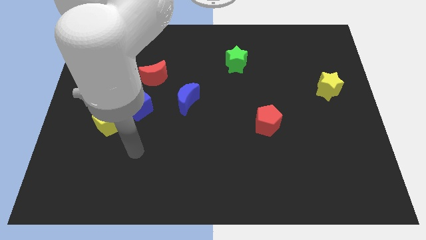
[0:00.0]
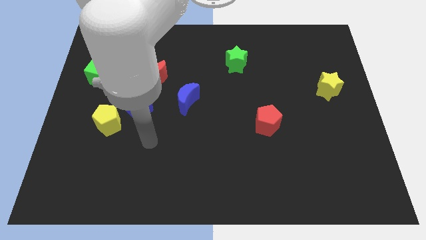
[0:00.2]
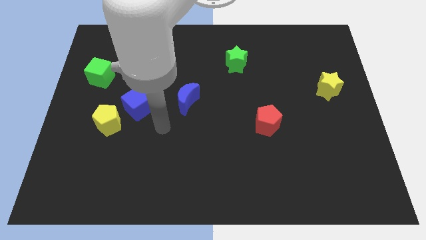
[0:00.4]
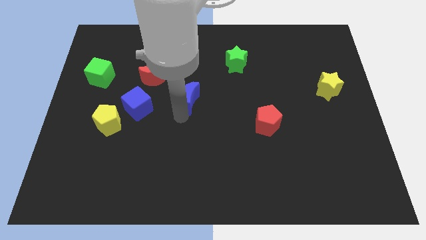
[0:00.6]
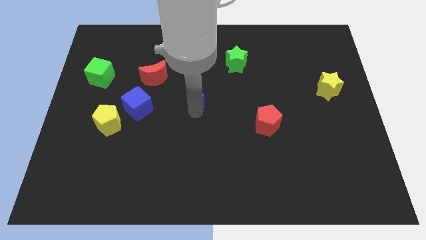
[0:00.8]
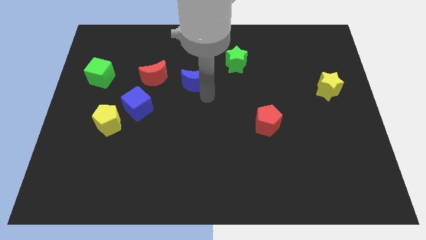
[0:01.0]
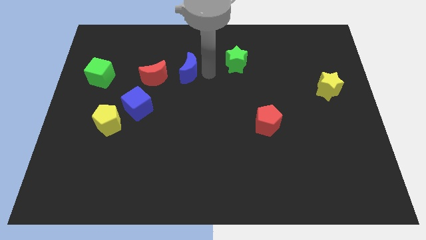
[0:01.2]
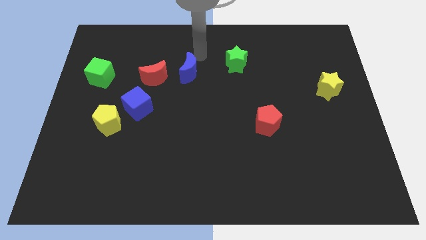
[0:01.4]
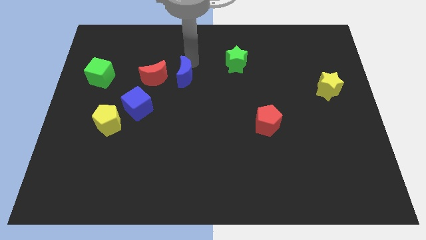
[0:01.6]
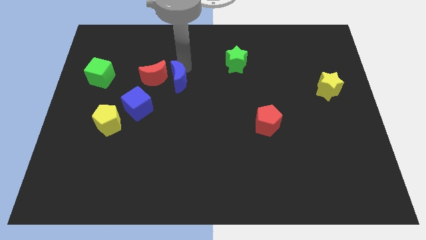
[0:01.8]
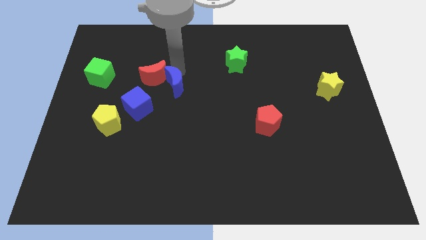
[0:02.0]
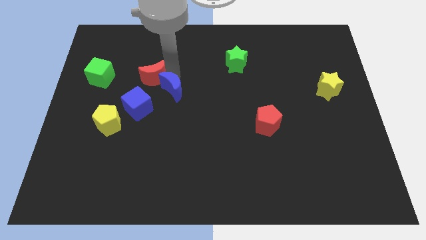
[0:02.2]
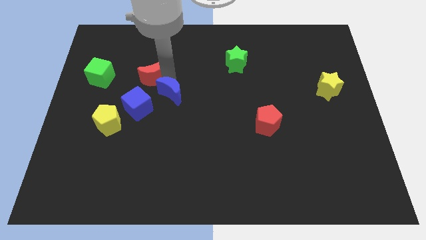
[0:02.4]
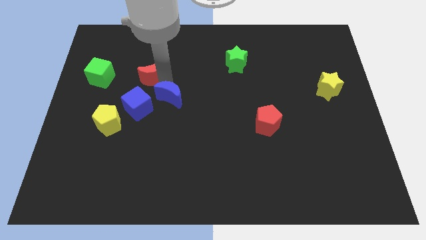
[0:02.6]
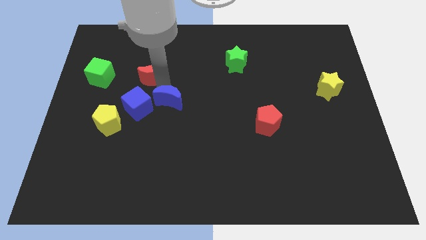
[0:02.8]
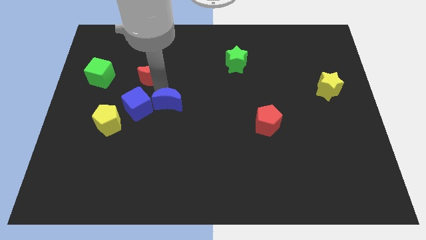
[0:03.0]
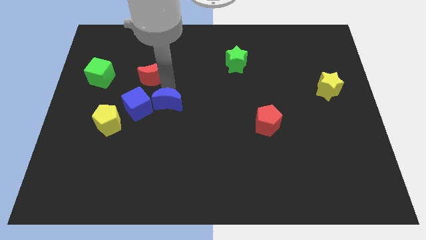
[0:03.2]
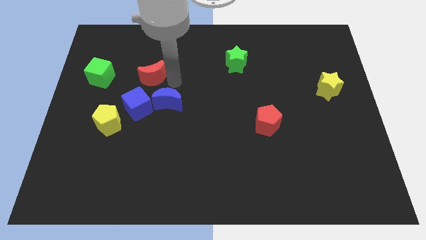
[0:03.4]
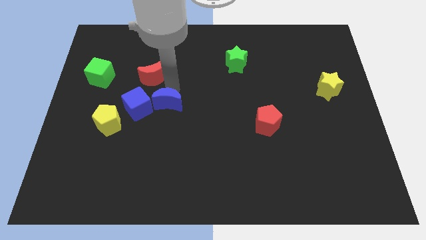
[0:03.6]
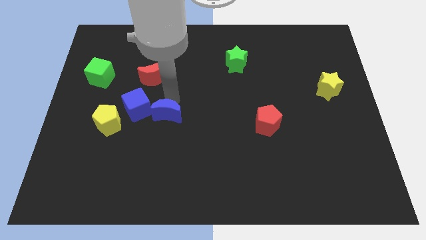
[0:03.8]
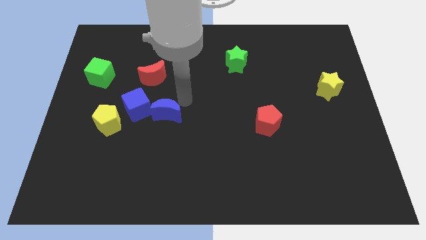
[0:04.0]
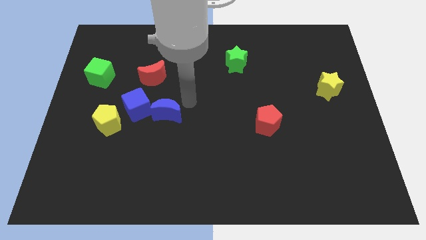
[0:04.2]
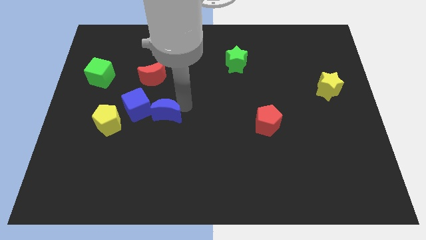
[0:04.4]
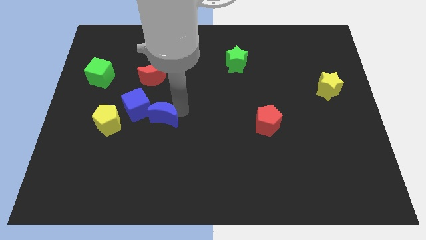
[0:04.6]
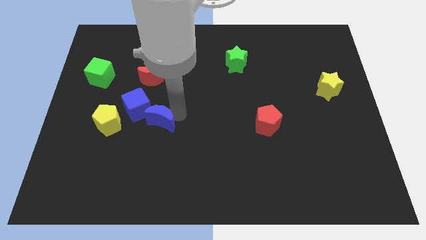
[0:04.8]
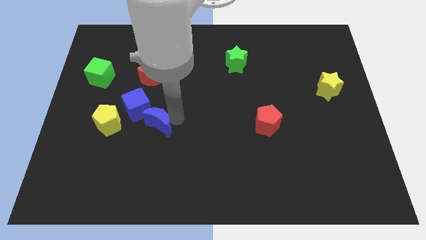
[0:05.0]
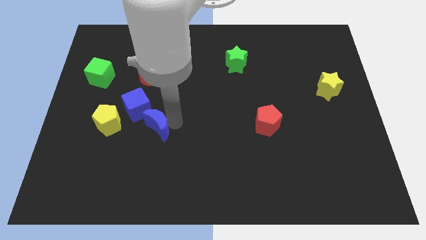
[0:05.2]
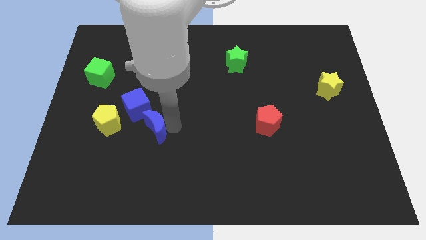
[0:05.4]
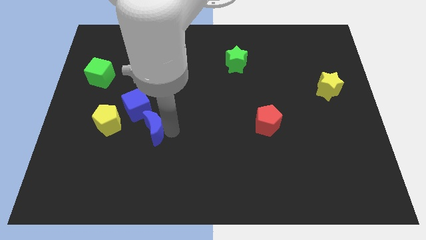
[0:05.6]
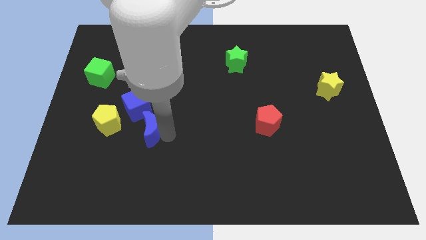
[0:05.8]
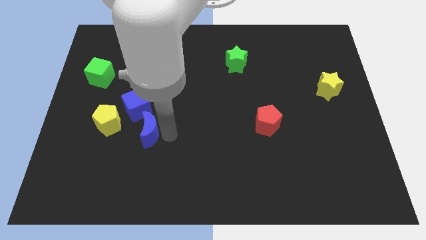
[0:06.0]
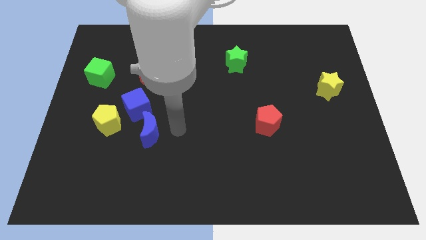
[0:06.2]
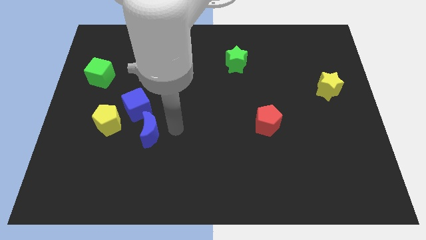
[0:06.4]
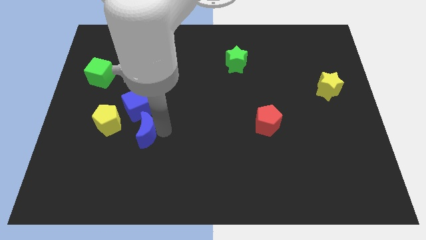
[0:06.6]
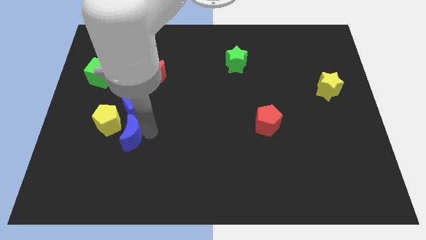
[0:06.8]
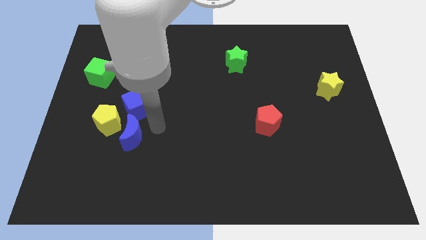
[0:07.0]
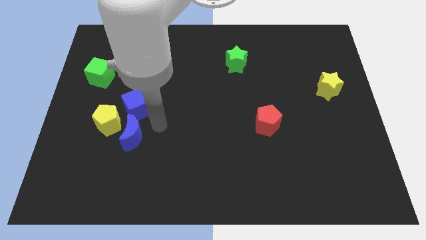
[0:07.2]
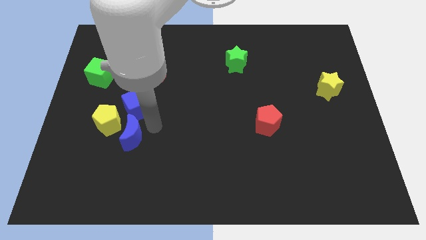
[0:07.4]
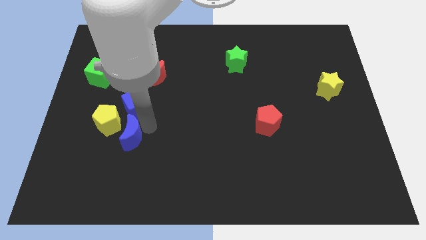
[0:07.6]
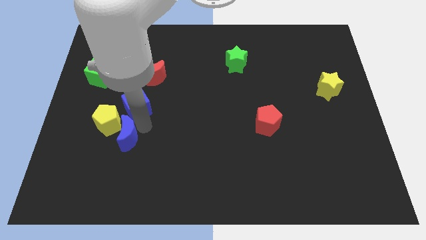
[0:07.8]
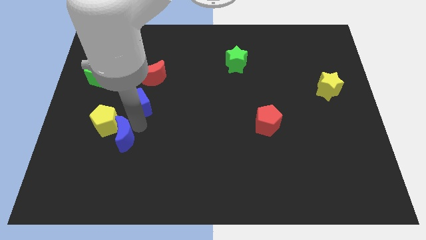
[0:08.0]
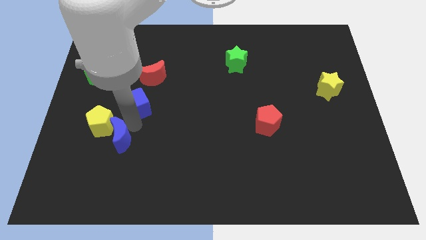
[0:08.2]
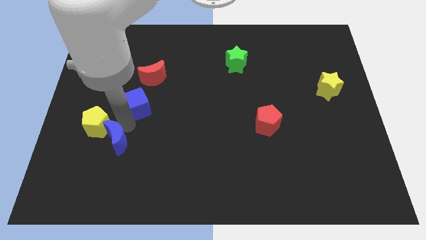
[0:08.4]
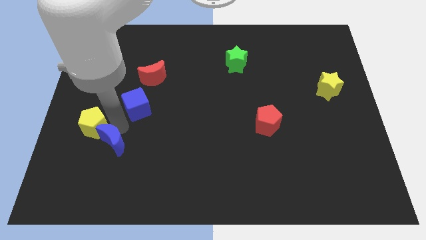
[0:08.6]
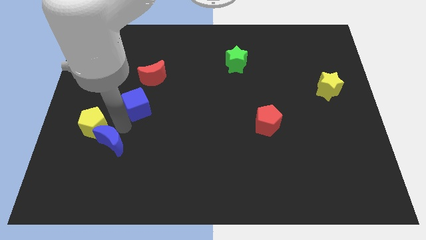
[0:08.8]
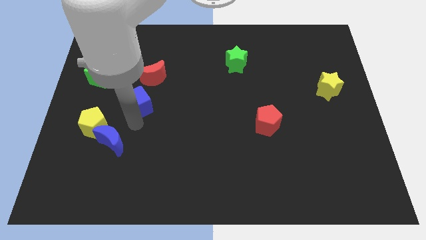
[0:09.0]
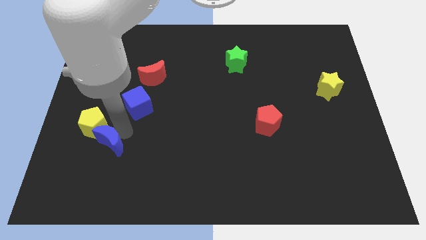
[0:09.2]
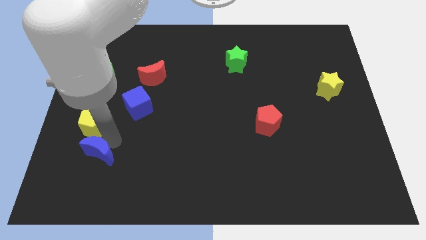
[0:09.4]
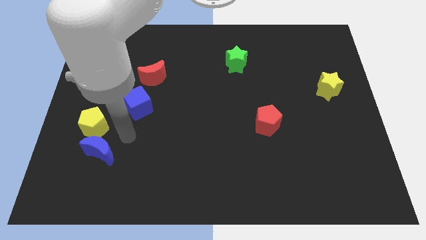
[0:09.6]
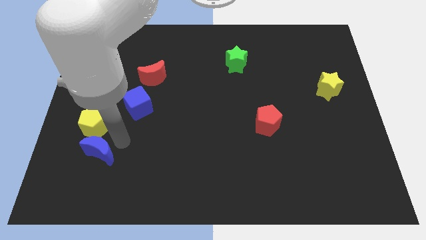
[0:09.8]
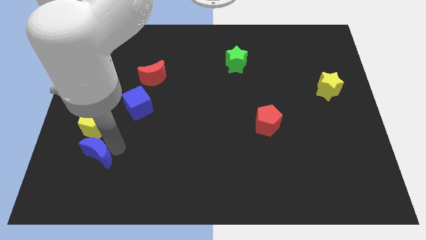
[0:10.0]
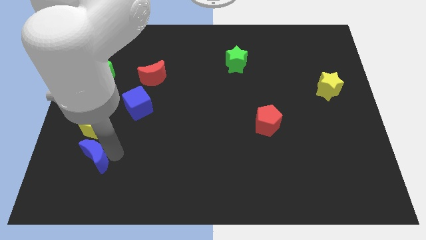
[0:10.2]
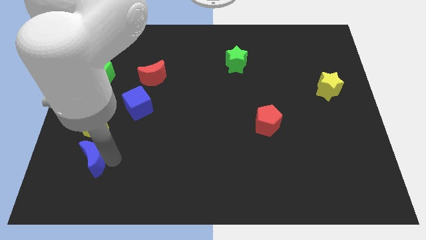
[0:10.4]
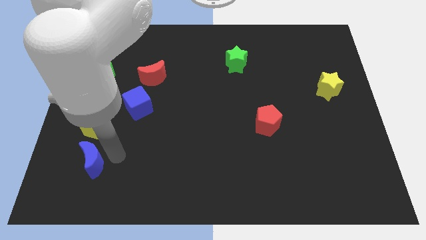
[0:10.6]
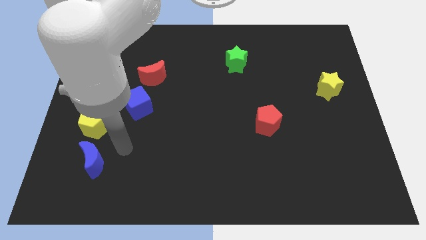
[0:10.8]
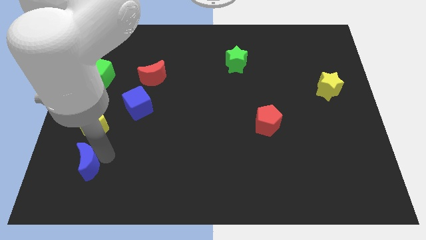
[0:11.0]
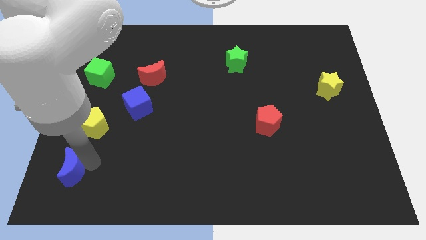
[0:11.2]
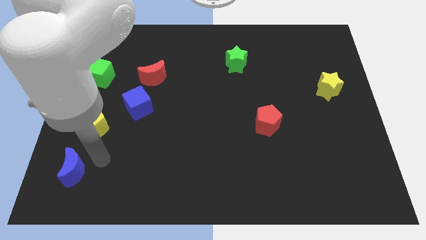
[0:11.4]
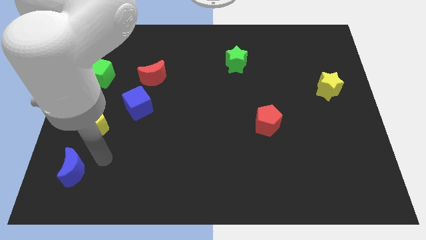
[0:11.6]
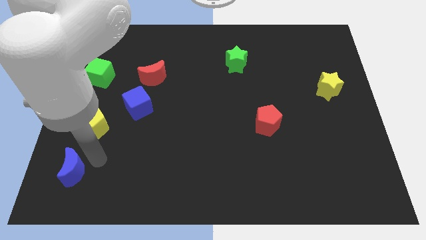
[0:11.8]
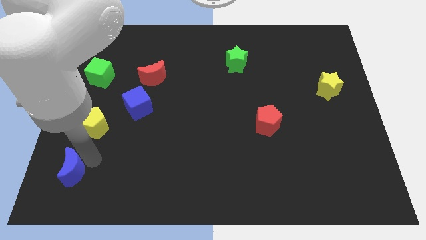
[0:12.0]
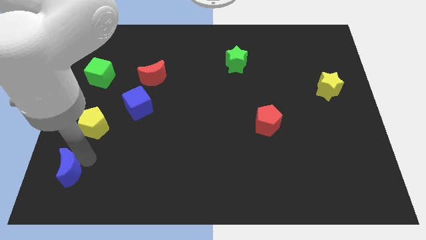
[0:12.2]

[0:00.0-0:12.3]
put the blue moon to the bottom left
